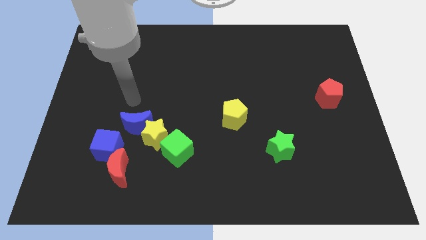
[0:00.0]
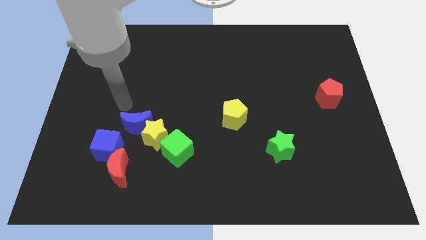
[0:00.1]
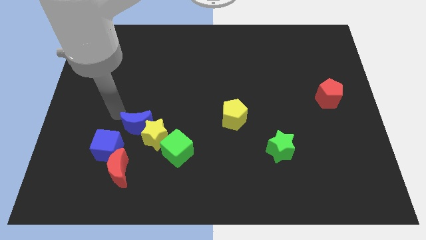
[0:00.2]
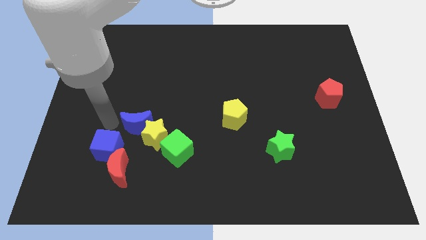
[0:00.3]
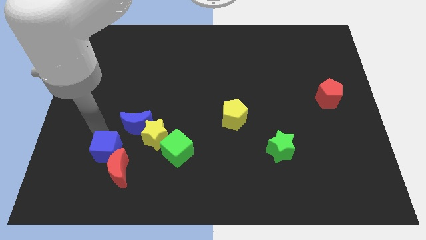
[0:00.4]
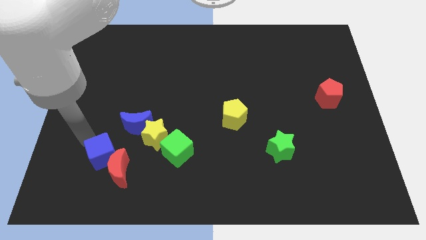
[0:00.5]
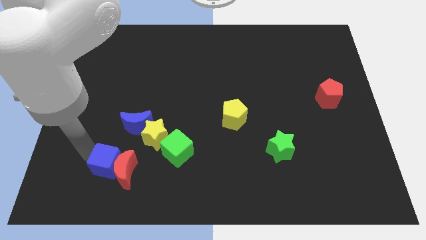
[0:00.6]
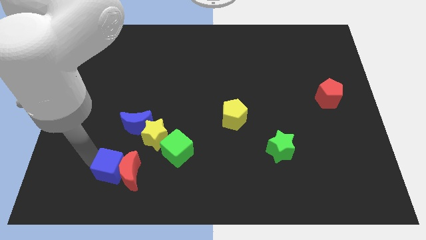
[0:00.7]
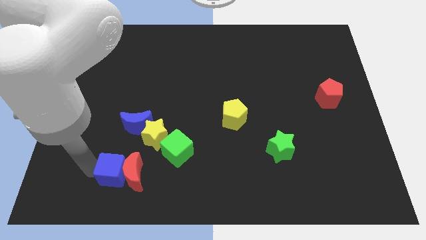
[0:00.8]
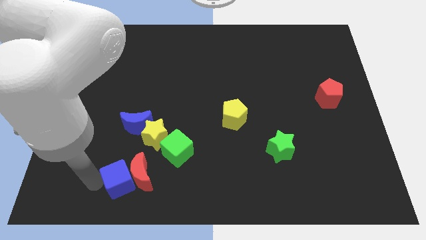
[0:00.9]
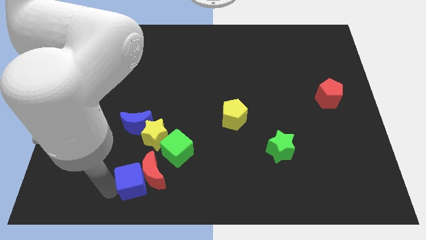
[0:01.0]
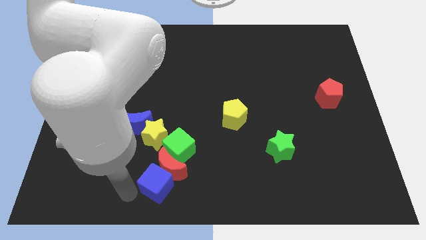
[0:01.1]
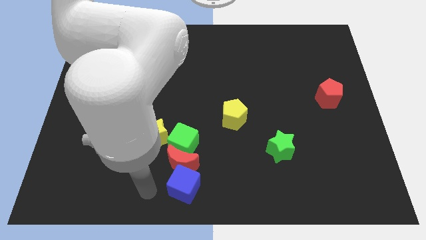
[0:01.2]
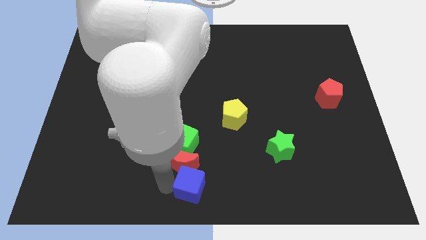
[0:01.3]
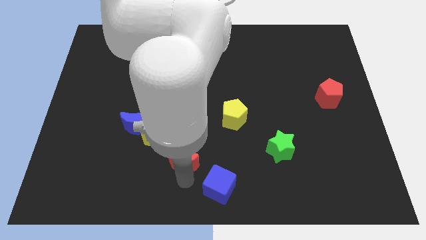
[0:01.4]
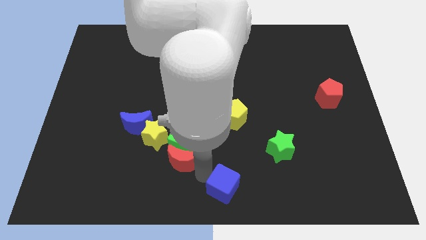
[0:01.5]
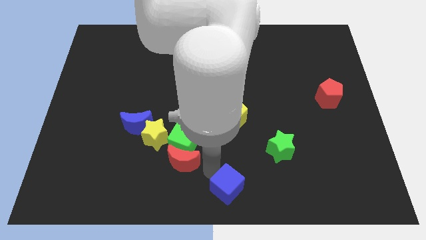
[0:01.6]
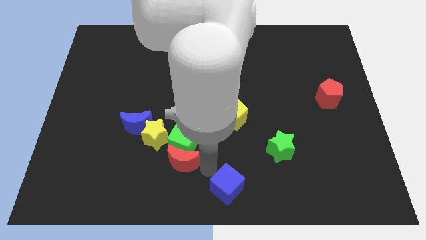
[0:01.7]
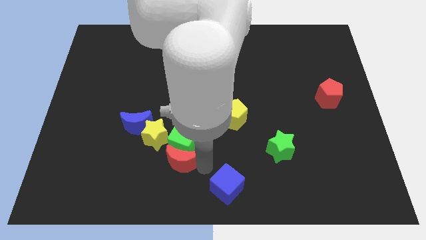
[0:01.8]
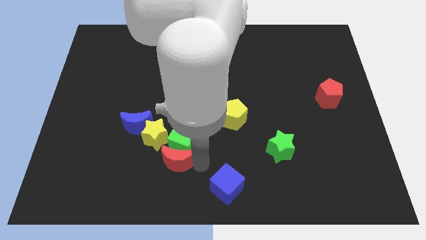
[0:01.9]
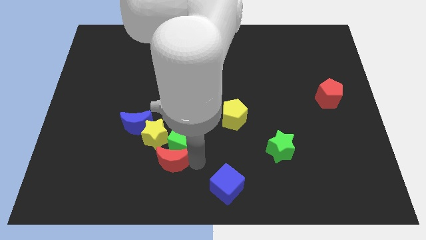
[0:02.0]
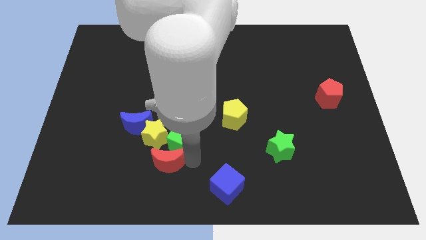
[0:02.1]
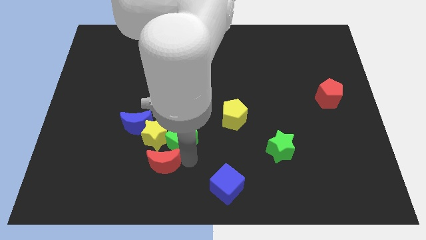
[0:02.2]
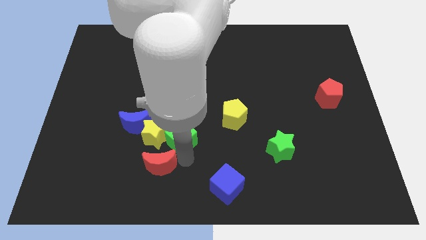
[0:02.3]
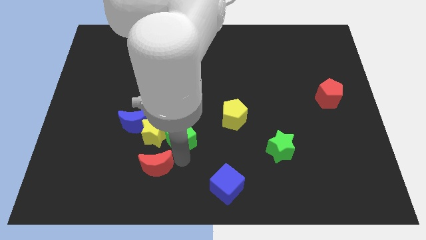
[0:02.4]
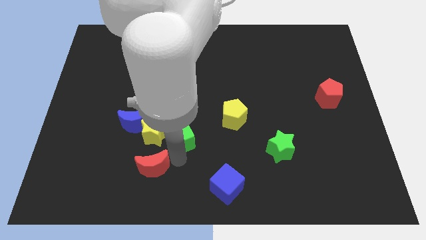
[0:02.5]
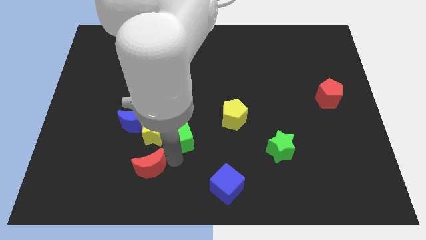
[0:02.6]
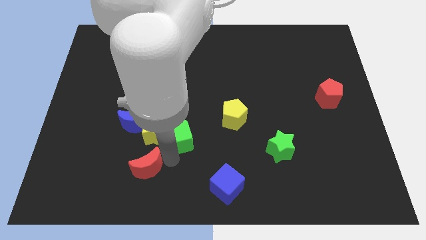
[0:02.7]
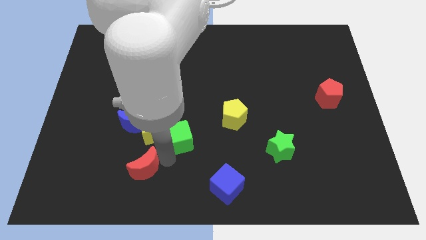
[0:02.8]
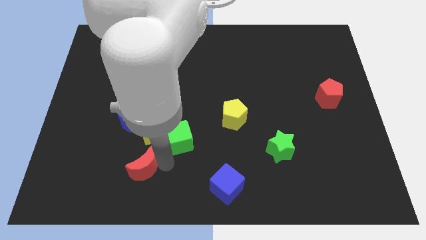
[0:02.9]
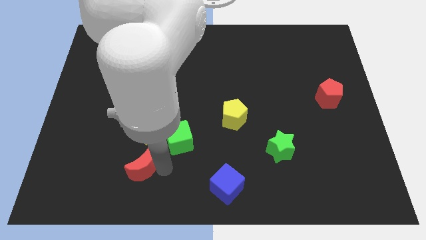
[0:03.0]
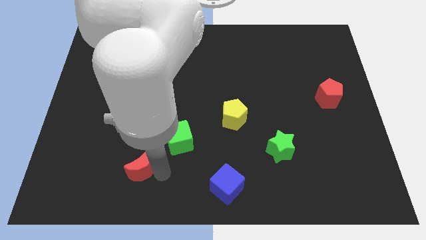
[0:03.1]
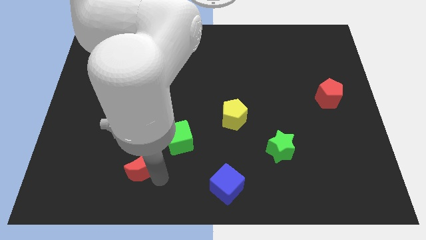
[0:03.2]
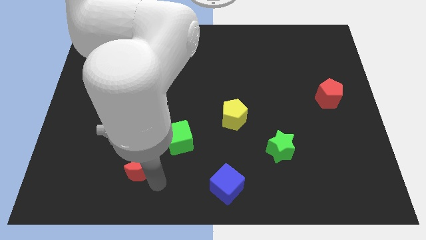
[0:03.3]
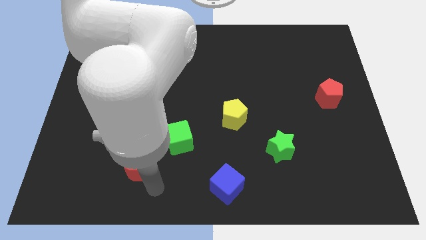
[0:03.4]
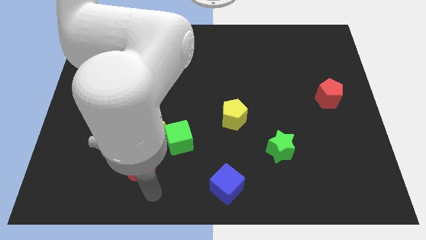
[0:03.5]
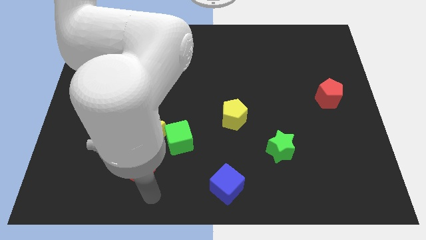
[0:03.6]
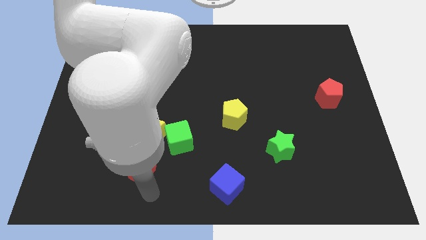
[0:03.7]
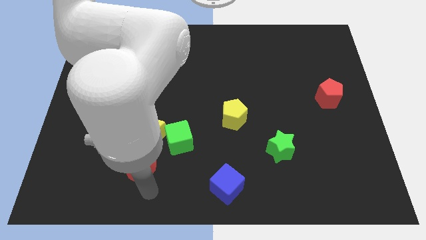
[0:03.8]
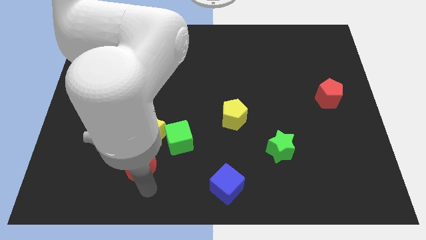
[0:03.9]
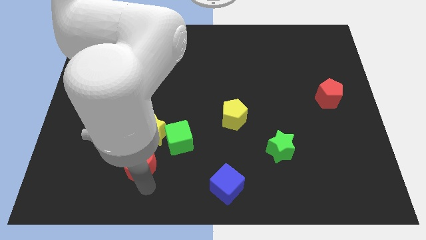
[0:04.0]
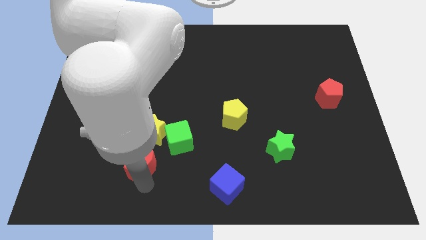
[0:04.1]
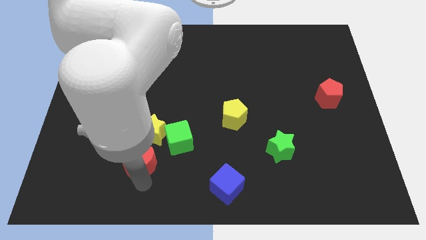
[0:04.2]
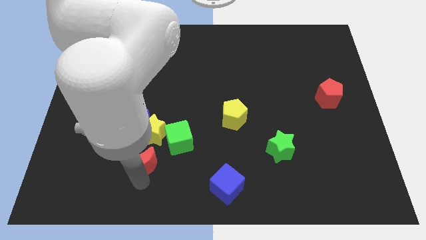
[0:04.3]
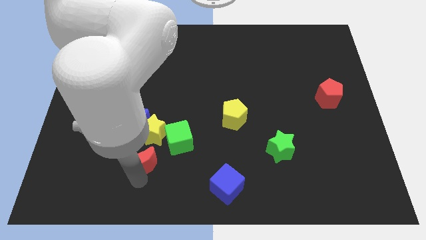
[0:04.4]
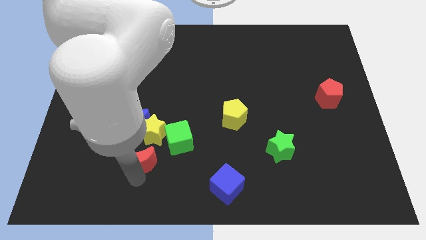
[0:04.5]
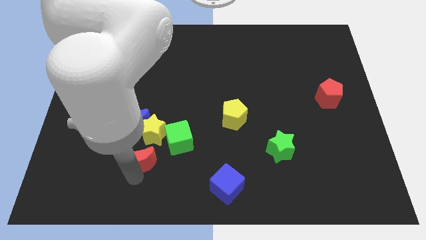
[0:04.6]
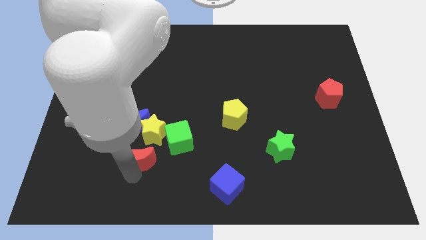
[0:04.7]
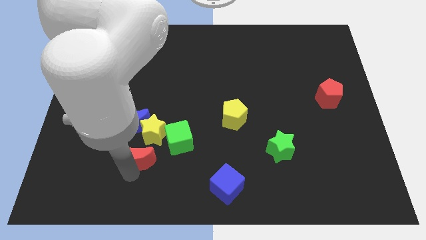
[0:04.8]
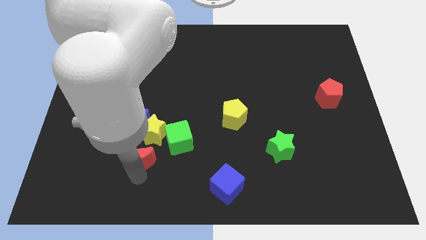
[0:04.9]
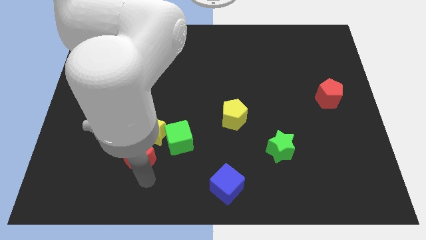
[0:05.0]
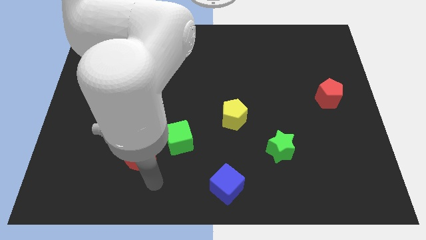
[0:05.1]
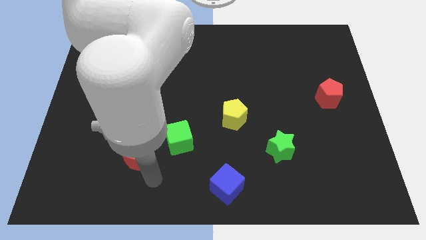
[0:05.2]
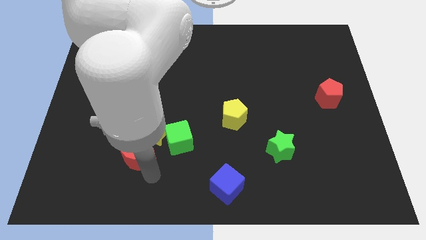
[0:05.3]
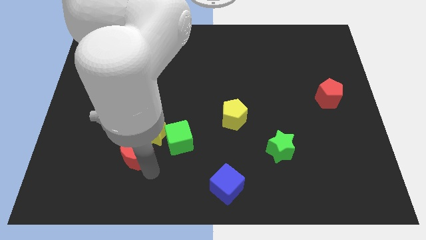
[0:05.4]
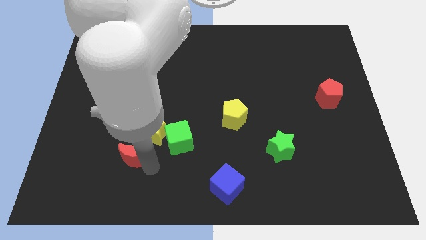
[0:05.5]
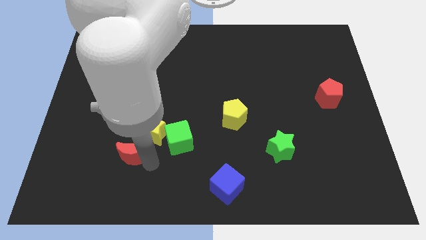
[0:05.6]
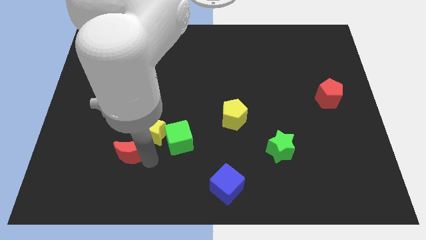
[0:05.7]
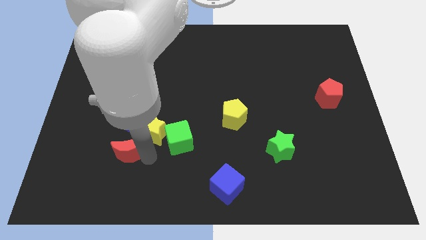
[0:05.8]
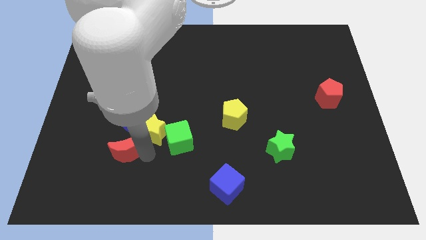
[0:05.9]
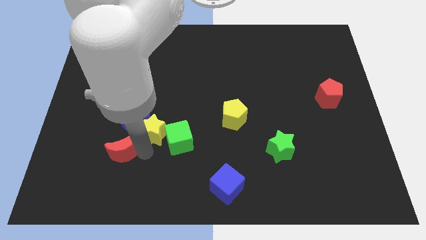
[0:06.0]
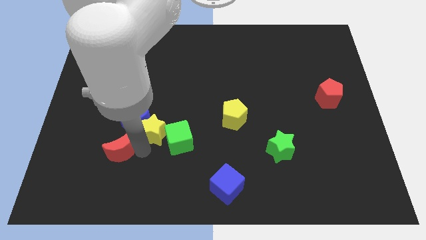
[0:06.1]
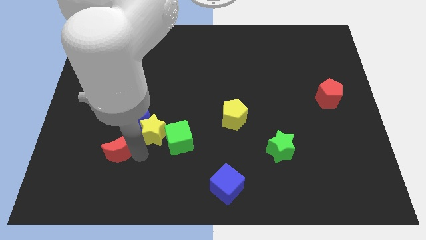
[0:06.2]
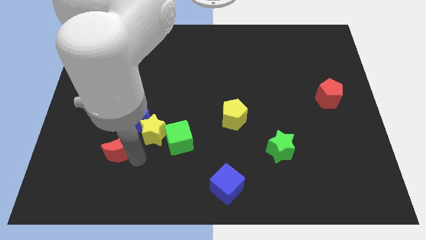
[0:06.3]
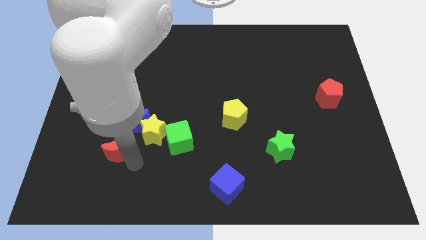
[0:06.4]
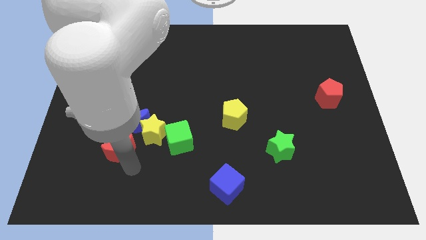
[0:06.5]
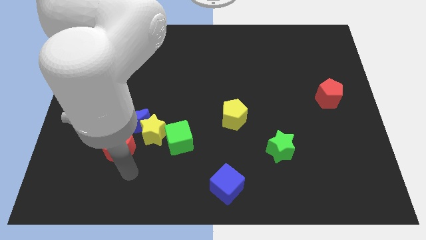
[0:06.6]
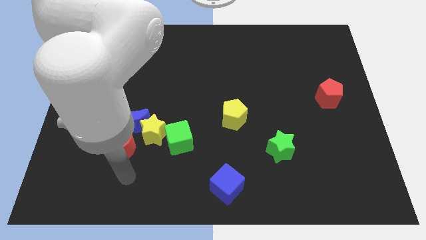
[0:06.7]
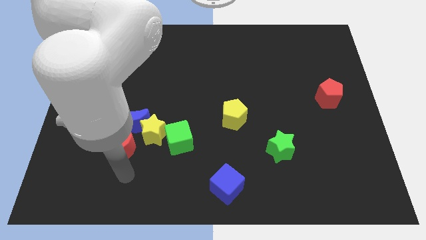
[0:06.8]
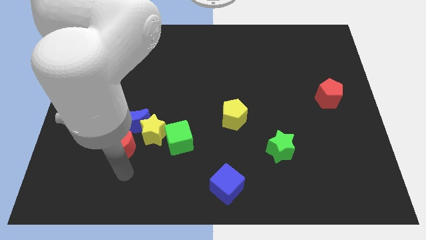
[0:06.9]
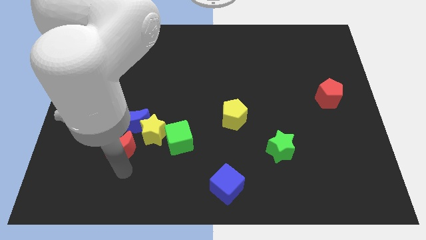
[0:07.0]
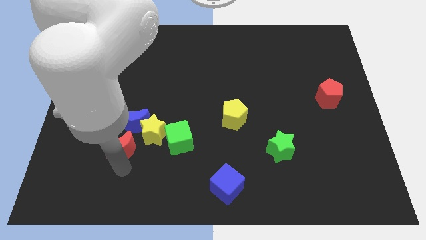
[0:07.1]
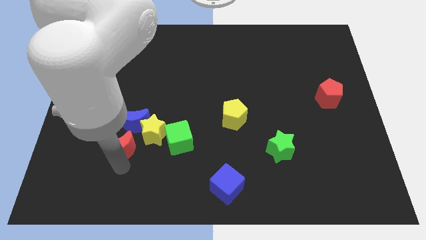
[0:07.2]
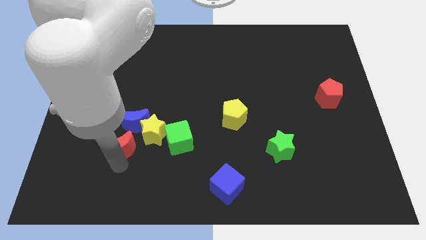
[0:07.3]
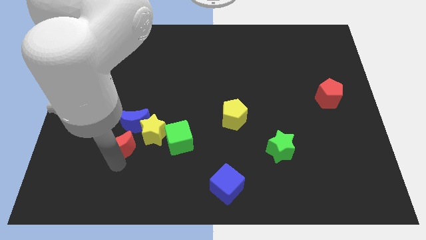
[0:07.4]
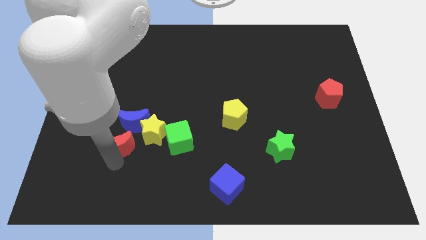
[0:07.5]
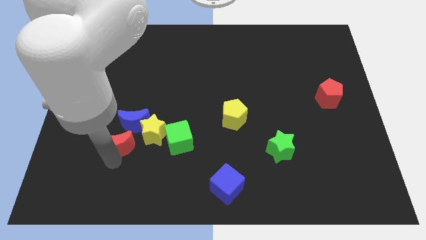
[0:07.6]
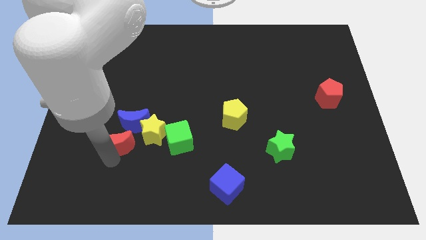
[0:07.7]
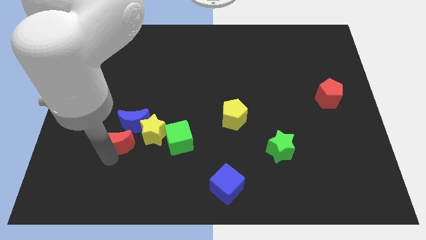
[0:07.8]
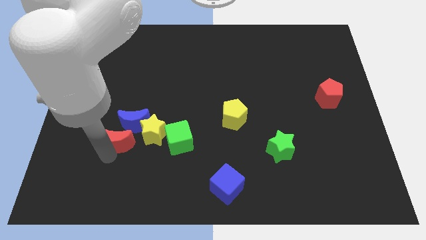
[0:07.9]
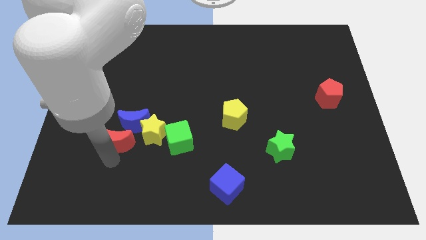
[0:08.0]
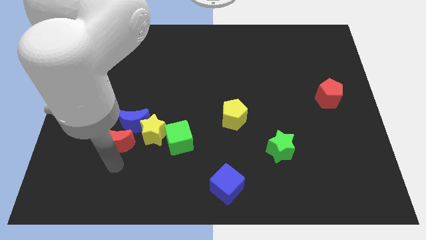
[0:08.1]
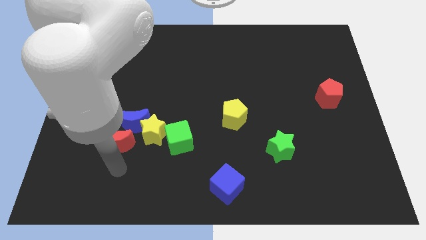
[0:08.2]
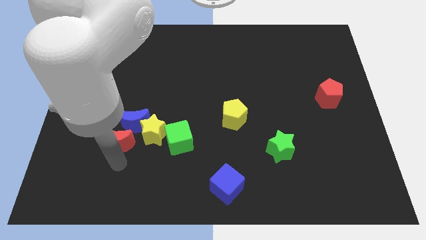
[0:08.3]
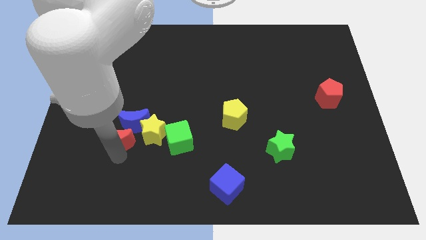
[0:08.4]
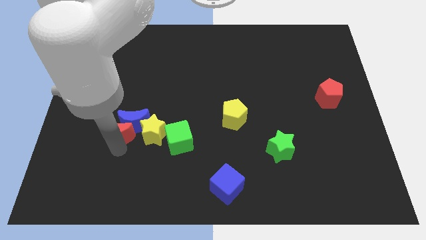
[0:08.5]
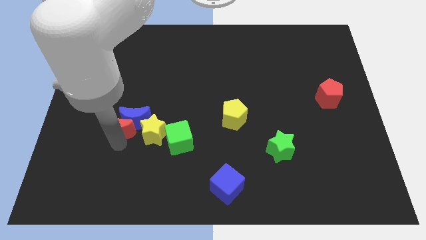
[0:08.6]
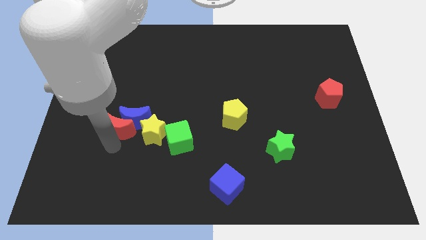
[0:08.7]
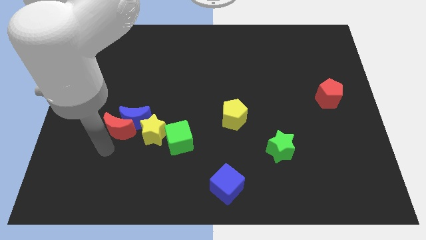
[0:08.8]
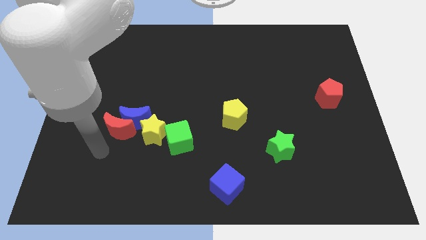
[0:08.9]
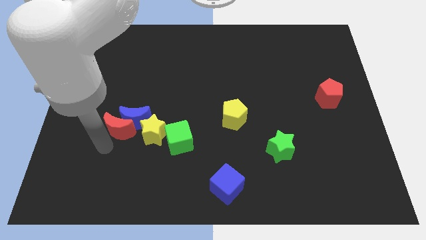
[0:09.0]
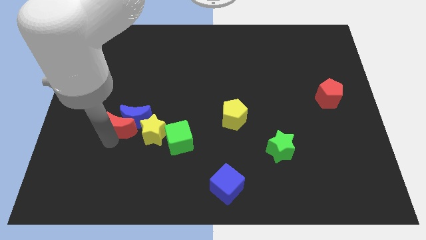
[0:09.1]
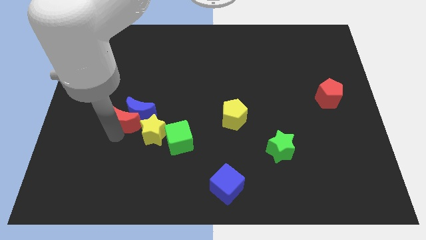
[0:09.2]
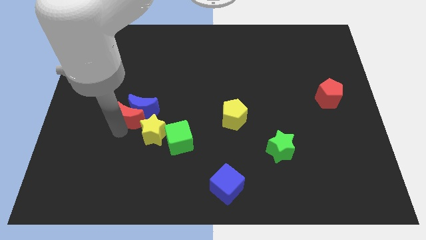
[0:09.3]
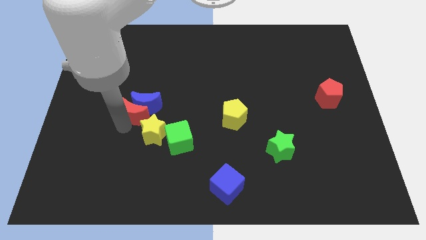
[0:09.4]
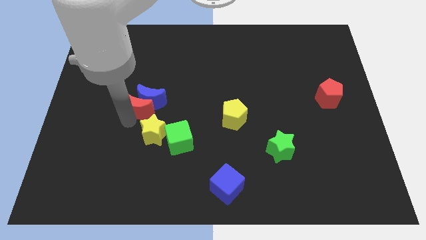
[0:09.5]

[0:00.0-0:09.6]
put the red moon to the top side of the yellow star
